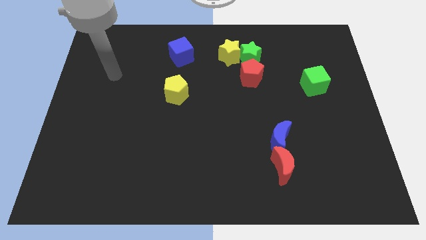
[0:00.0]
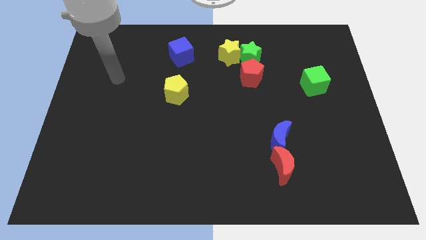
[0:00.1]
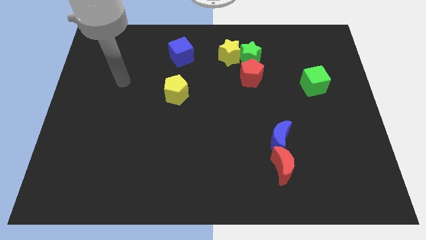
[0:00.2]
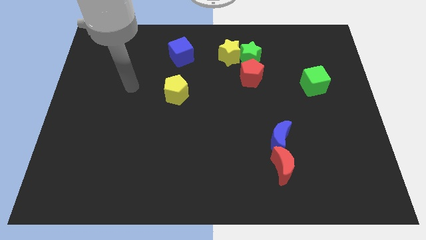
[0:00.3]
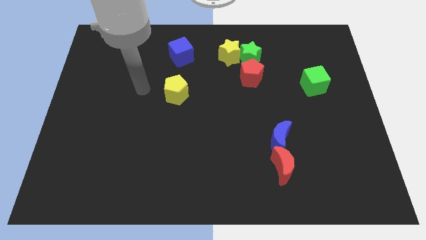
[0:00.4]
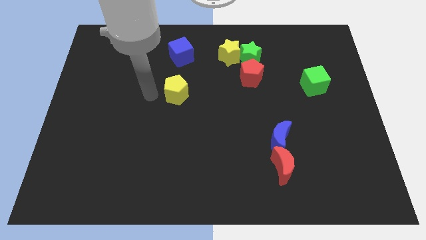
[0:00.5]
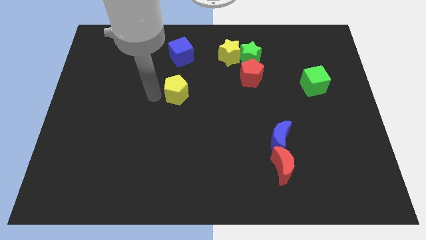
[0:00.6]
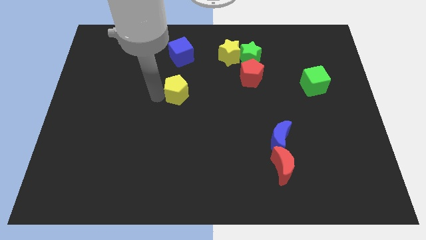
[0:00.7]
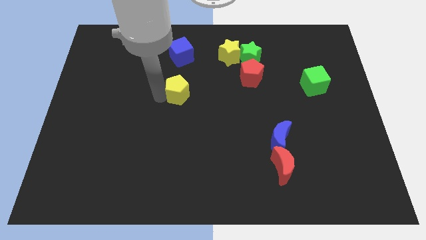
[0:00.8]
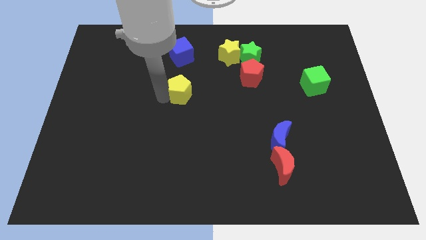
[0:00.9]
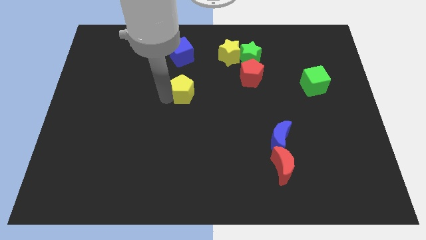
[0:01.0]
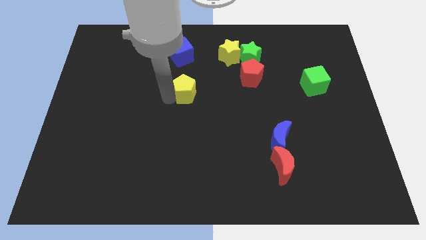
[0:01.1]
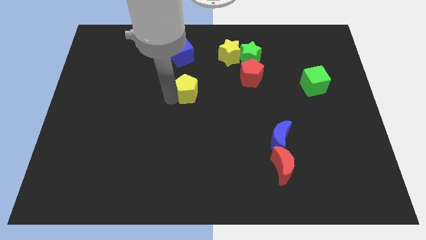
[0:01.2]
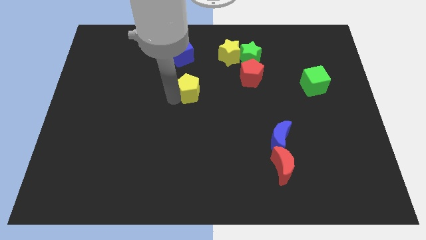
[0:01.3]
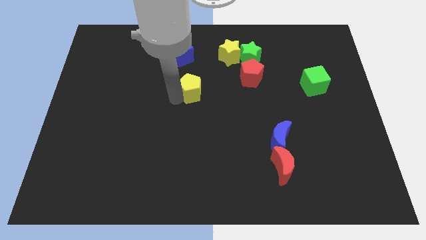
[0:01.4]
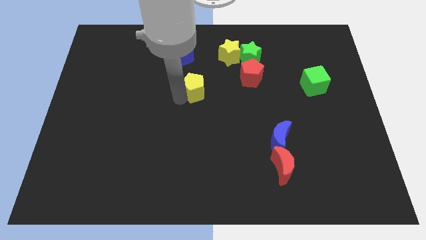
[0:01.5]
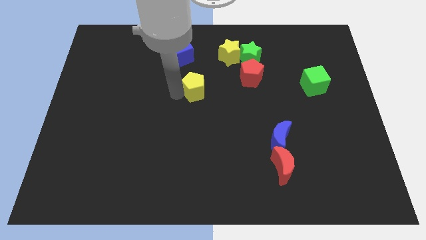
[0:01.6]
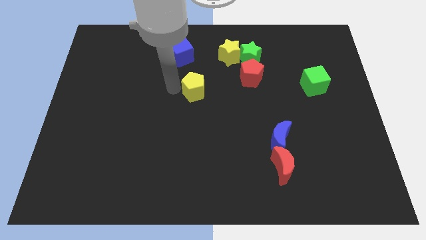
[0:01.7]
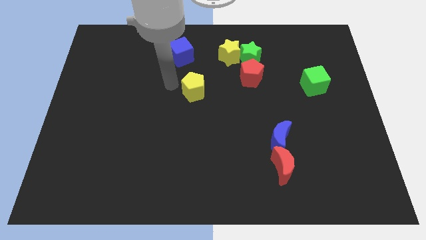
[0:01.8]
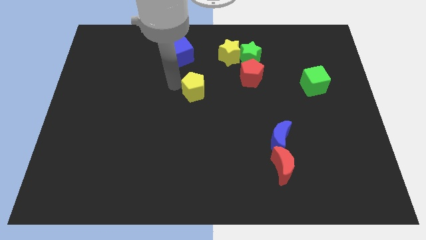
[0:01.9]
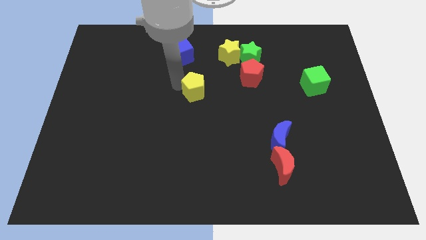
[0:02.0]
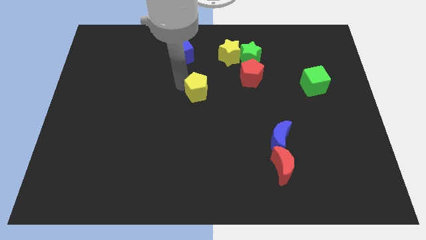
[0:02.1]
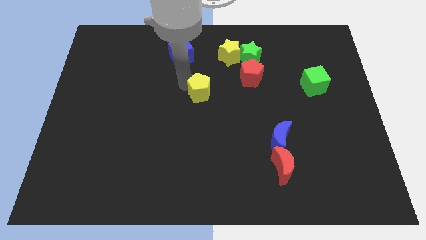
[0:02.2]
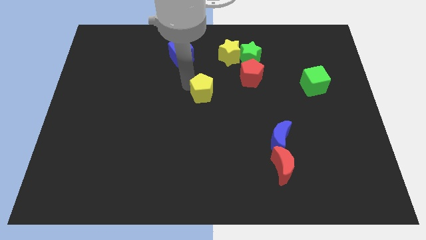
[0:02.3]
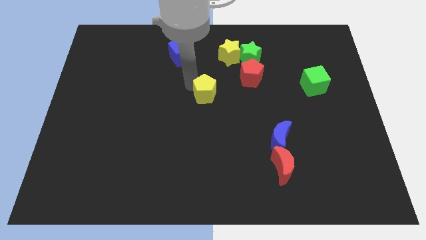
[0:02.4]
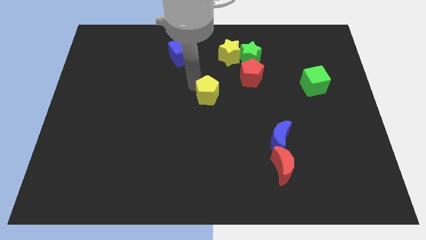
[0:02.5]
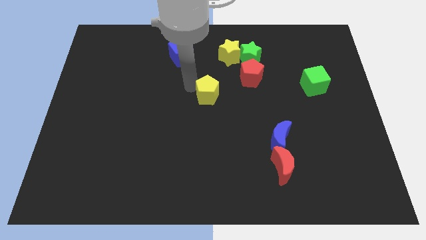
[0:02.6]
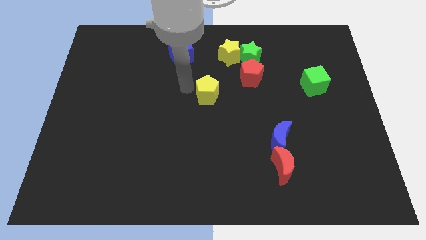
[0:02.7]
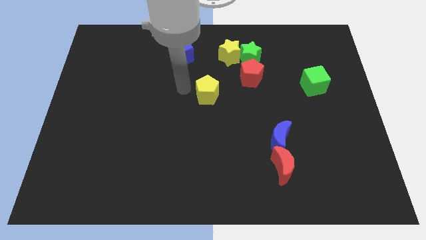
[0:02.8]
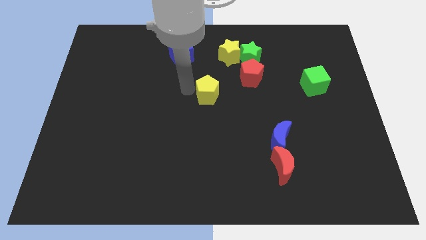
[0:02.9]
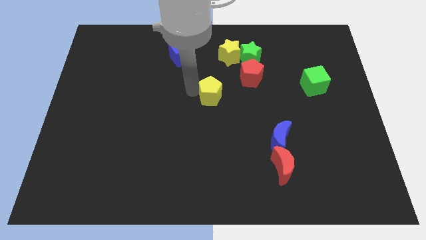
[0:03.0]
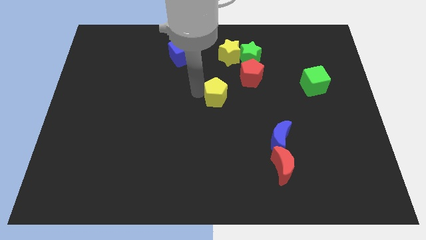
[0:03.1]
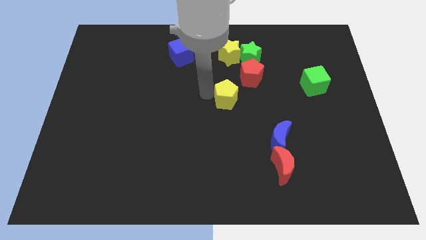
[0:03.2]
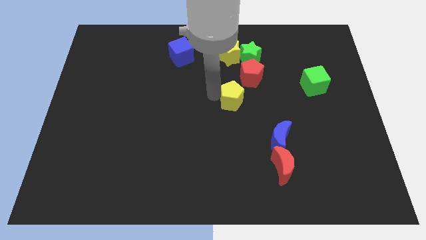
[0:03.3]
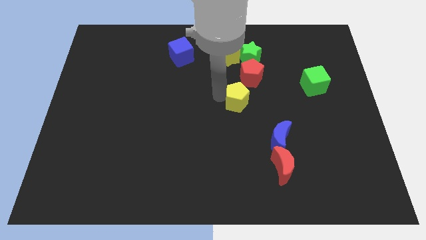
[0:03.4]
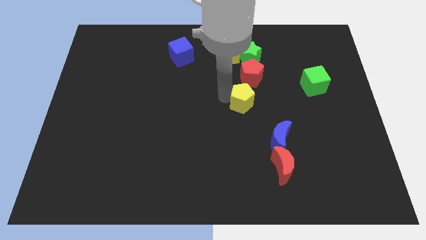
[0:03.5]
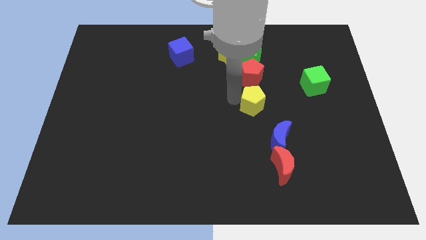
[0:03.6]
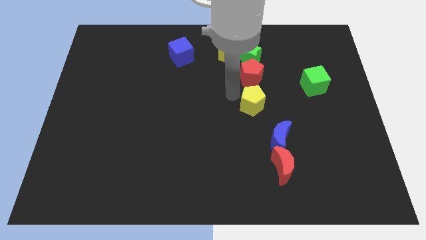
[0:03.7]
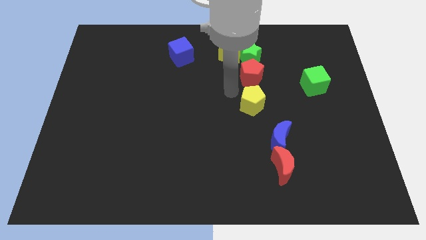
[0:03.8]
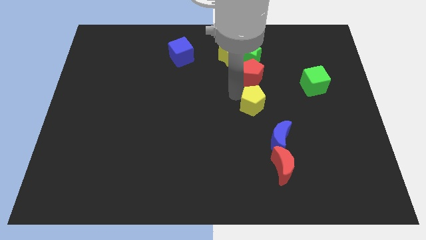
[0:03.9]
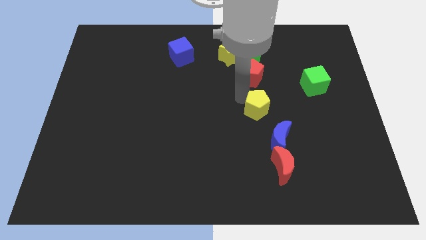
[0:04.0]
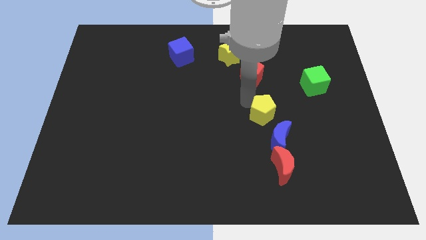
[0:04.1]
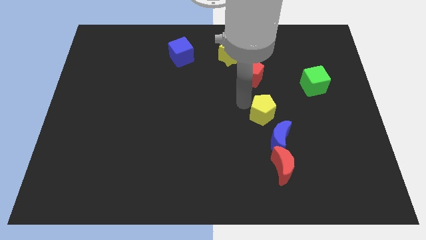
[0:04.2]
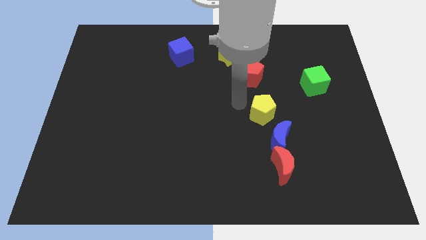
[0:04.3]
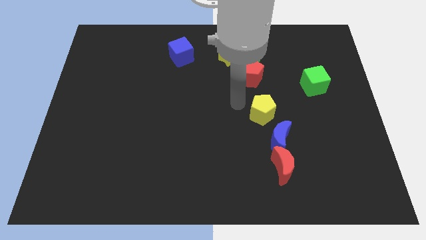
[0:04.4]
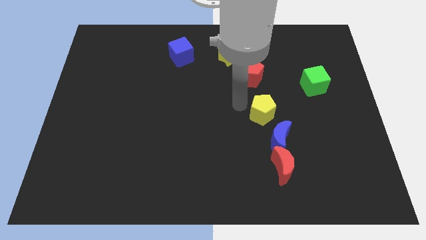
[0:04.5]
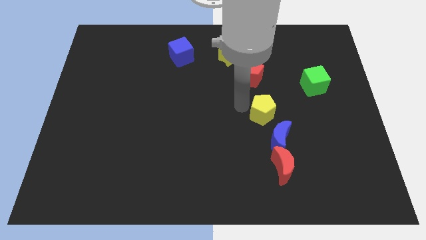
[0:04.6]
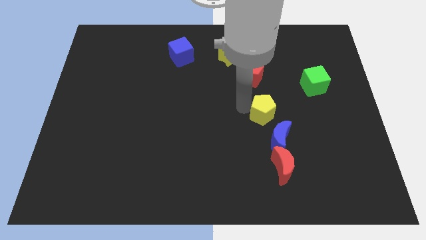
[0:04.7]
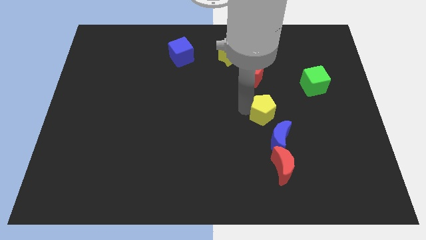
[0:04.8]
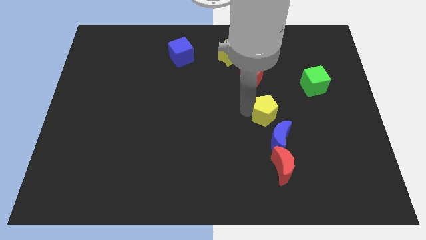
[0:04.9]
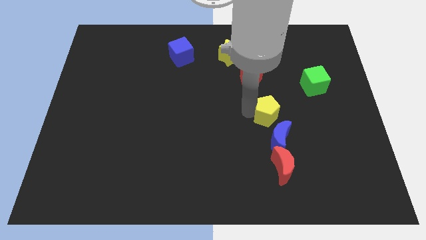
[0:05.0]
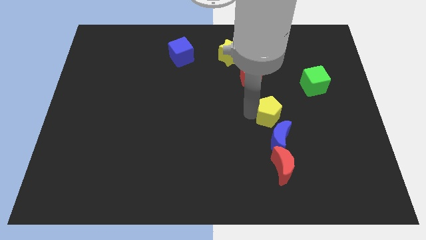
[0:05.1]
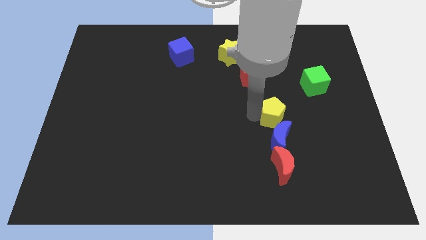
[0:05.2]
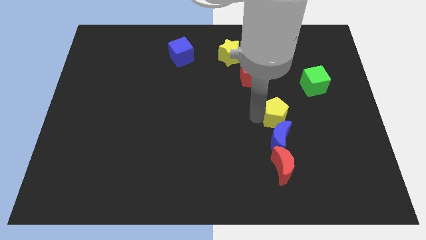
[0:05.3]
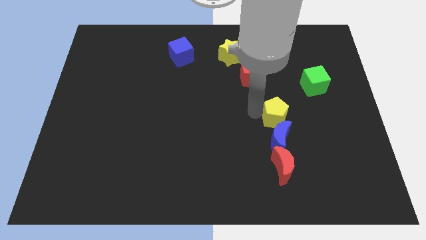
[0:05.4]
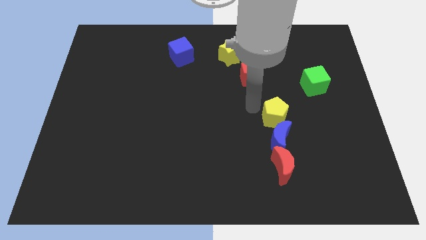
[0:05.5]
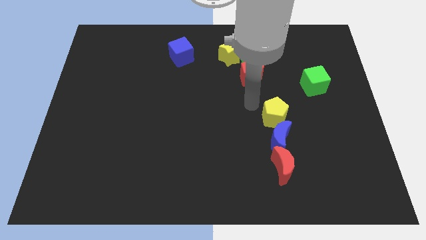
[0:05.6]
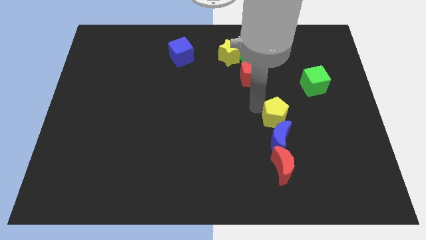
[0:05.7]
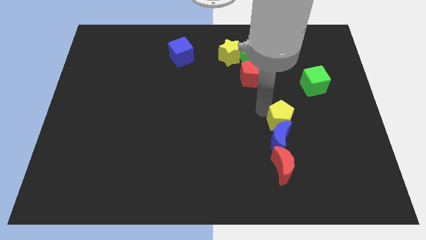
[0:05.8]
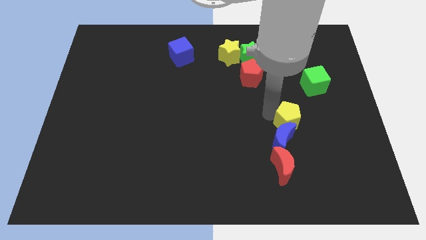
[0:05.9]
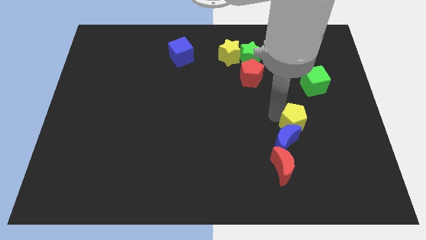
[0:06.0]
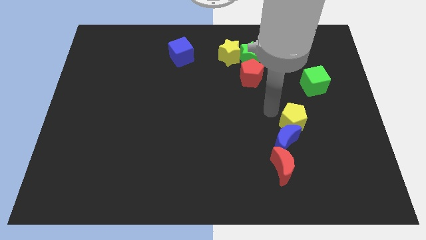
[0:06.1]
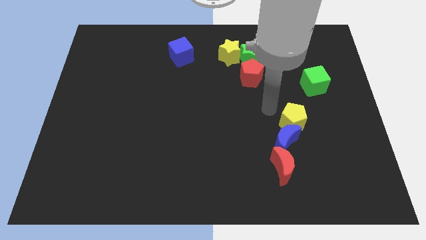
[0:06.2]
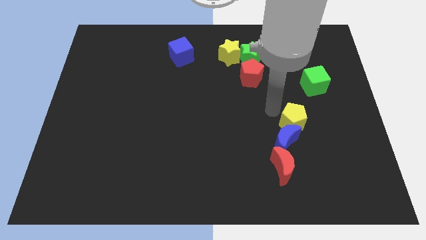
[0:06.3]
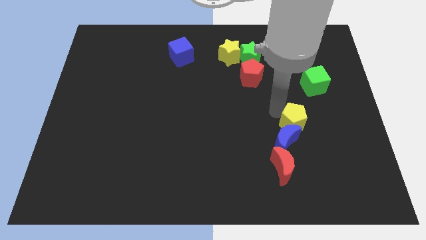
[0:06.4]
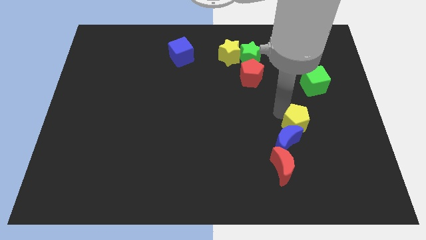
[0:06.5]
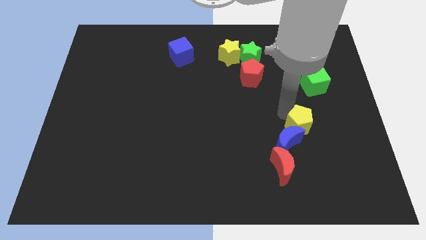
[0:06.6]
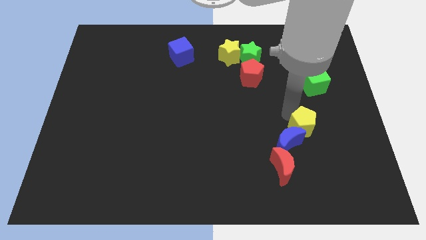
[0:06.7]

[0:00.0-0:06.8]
move the yellow pentagon to the right of the blue moon
